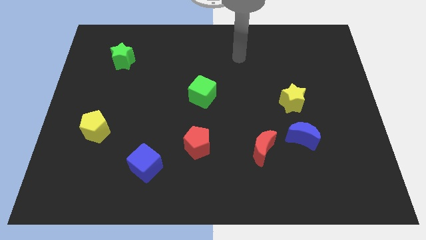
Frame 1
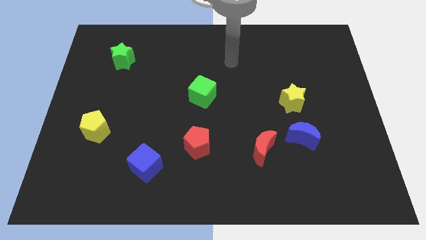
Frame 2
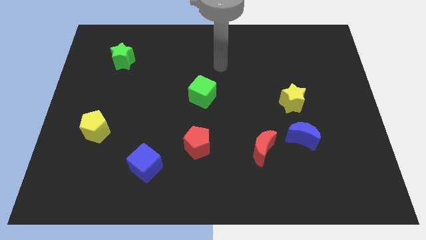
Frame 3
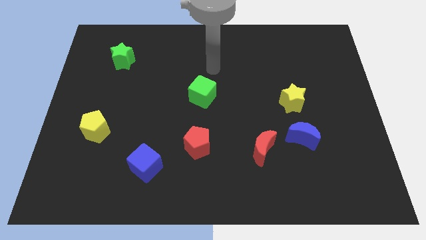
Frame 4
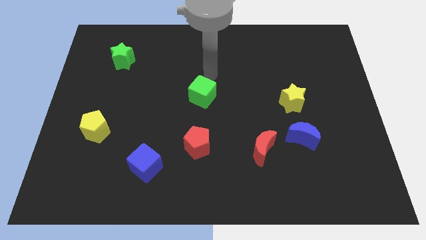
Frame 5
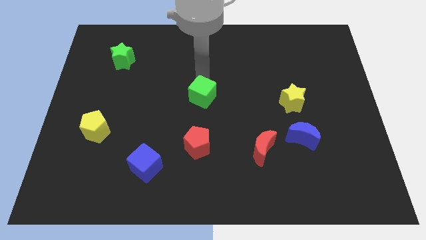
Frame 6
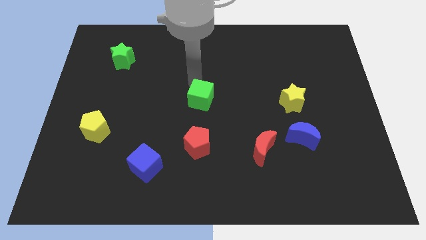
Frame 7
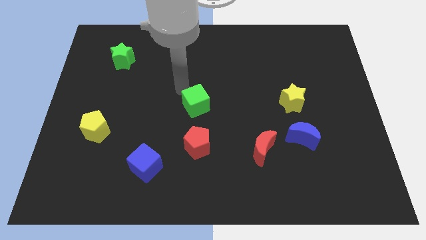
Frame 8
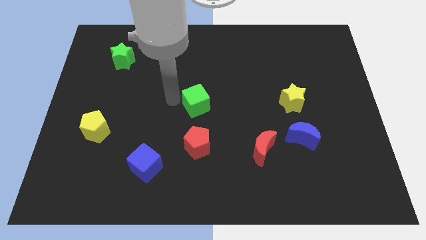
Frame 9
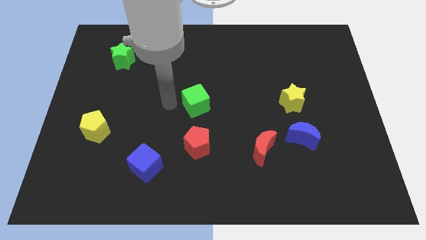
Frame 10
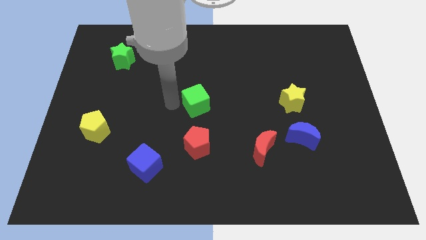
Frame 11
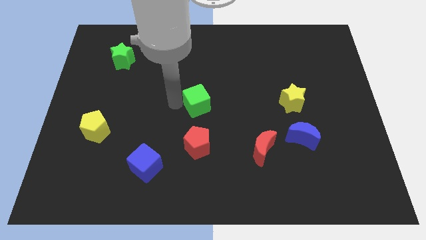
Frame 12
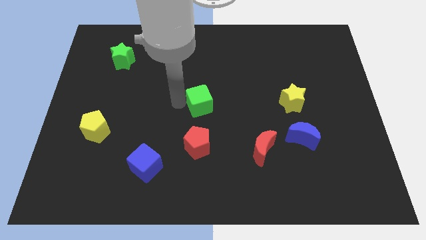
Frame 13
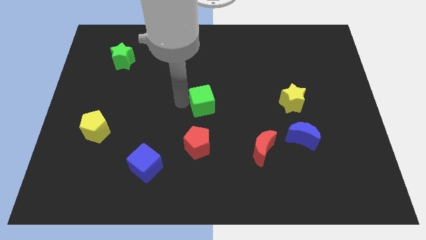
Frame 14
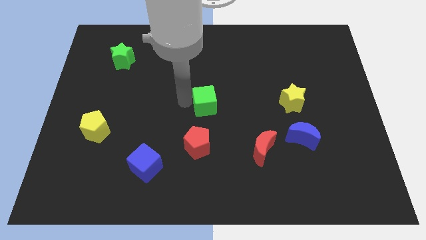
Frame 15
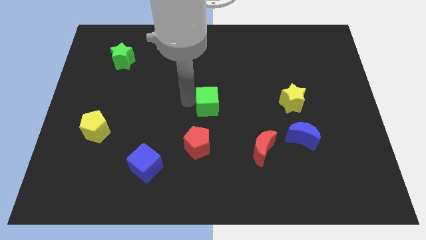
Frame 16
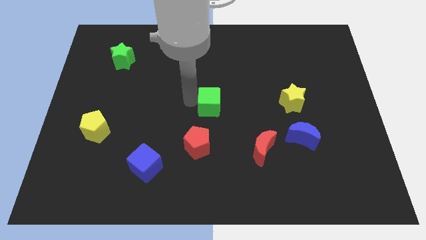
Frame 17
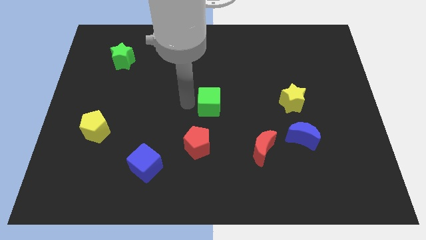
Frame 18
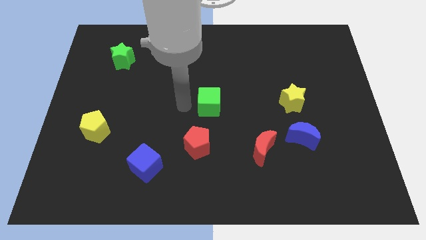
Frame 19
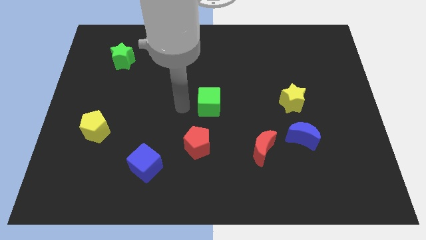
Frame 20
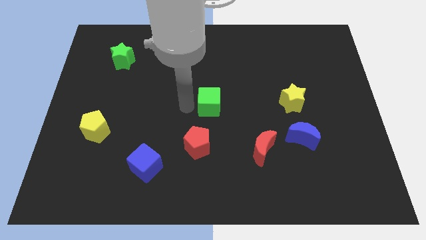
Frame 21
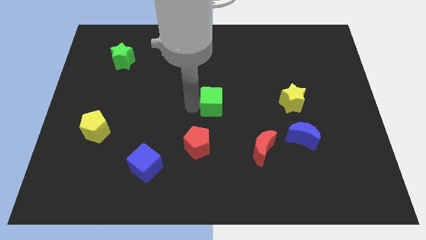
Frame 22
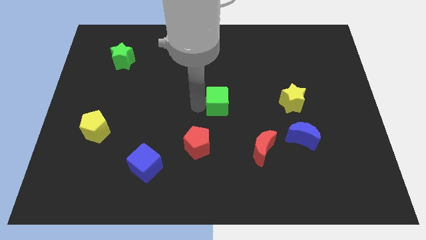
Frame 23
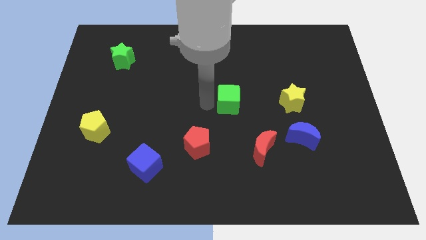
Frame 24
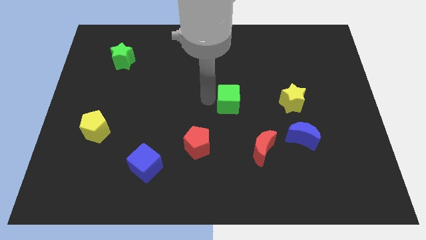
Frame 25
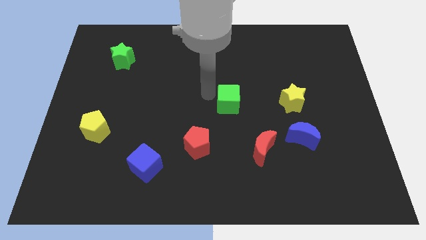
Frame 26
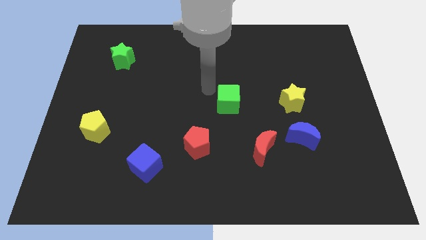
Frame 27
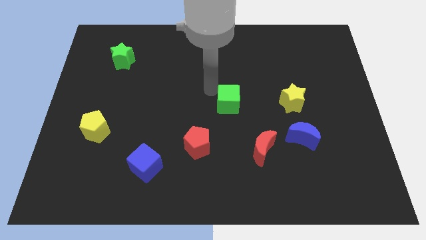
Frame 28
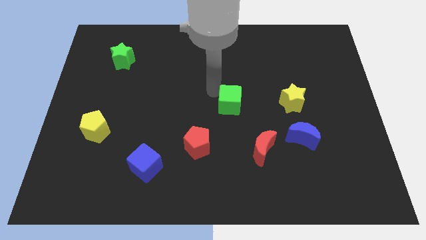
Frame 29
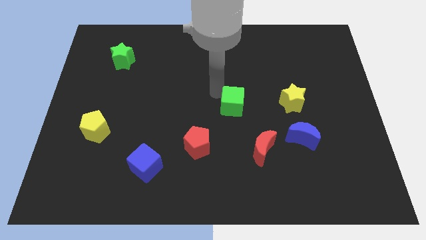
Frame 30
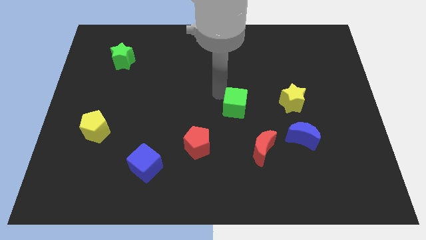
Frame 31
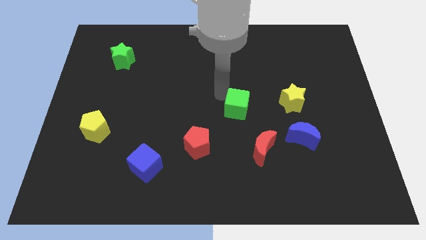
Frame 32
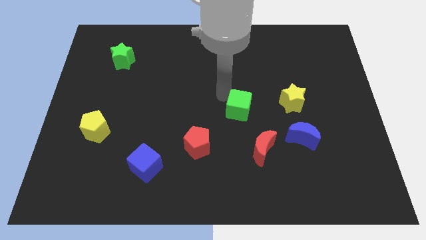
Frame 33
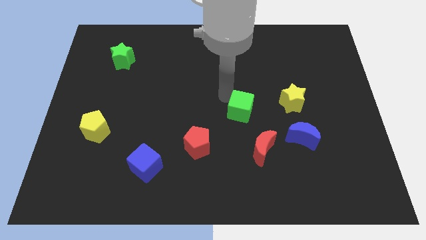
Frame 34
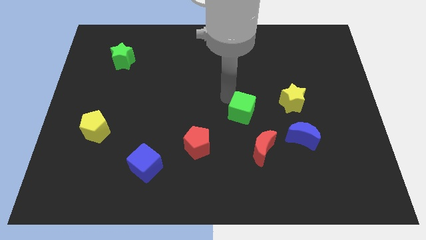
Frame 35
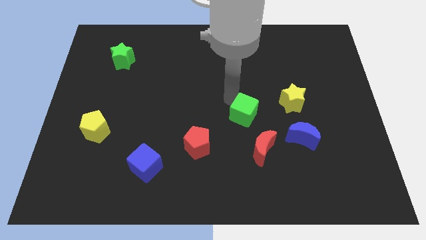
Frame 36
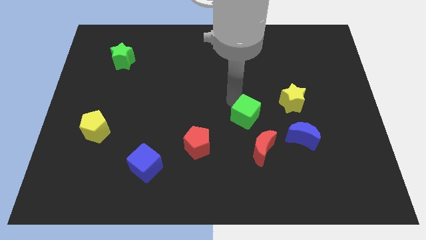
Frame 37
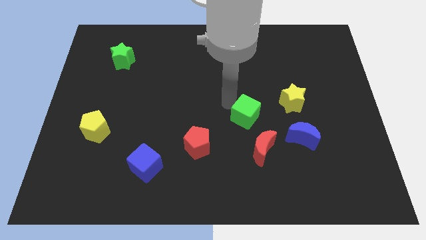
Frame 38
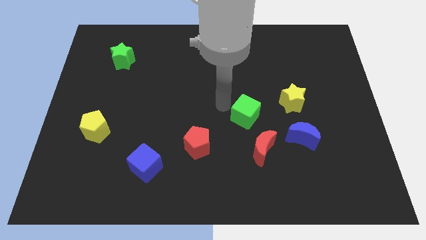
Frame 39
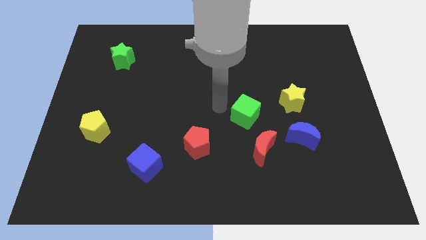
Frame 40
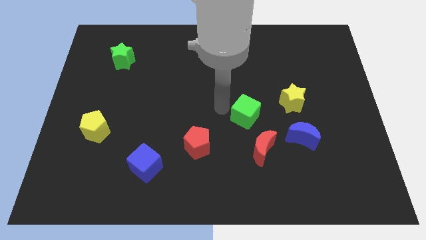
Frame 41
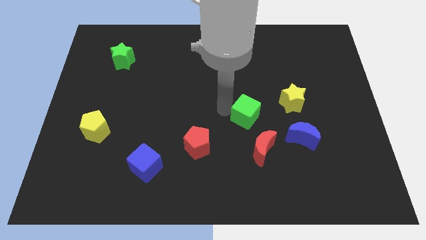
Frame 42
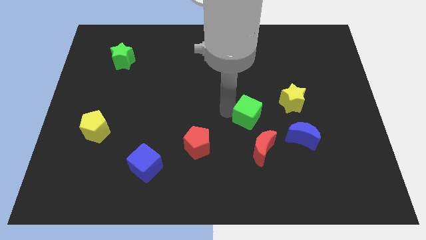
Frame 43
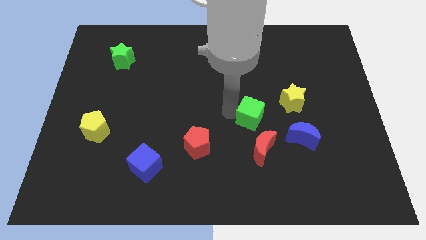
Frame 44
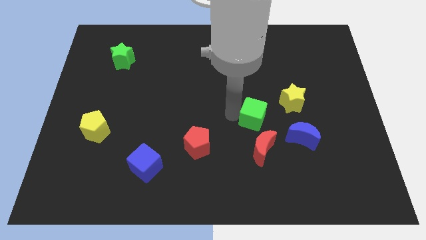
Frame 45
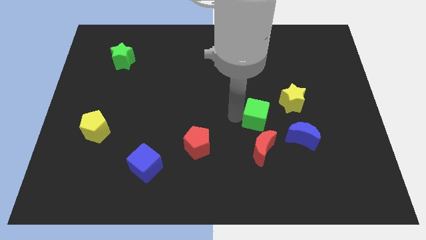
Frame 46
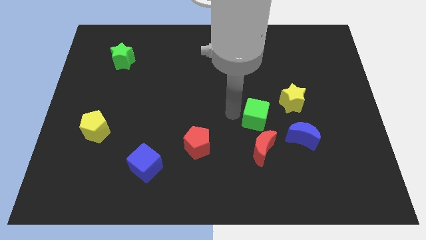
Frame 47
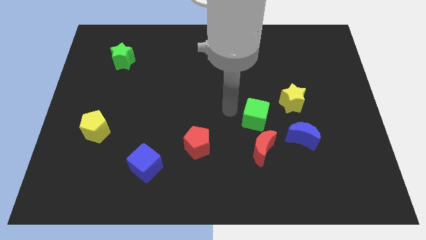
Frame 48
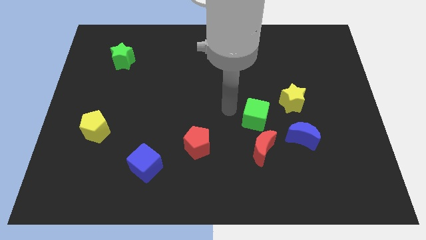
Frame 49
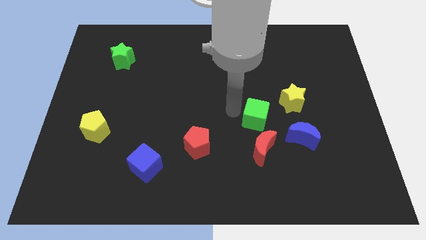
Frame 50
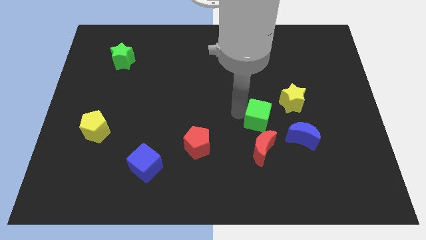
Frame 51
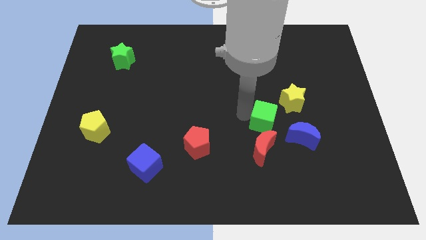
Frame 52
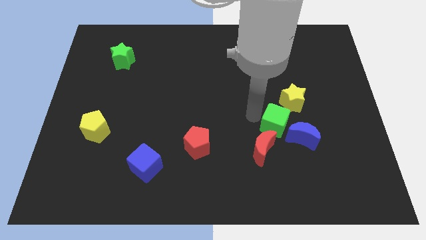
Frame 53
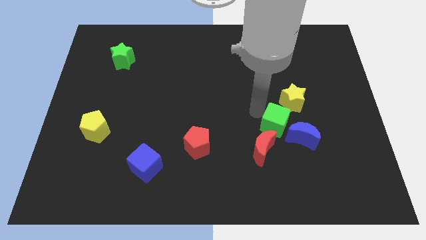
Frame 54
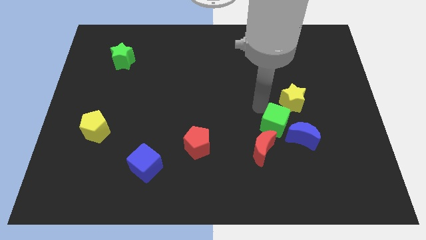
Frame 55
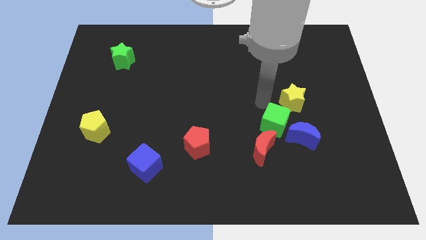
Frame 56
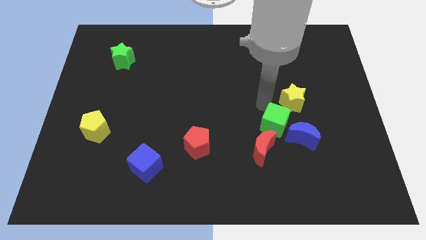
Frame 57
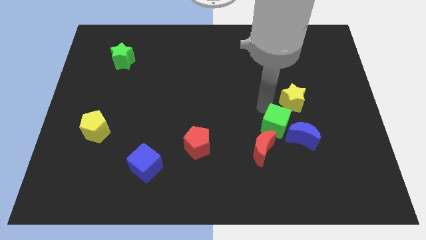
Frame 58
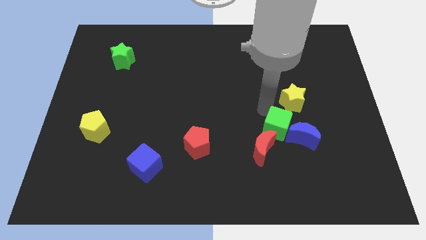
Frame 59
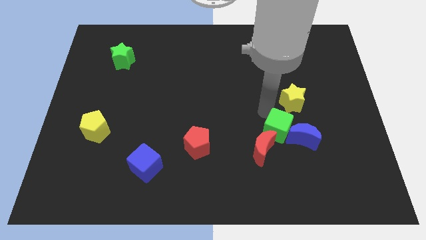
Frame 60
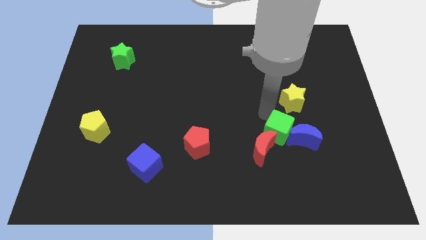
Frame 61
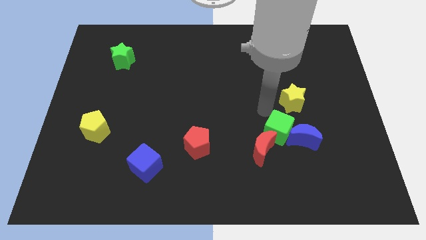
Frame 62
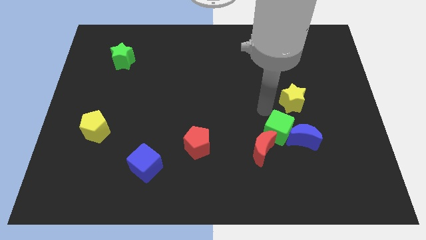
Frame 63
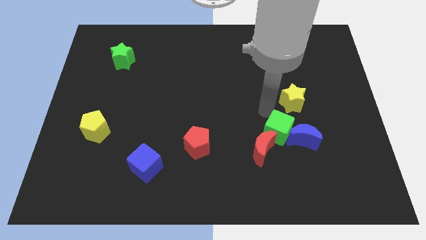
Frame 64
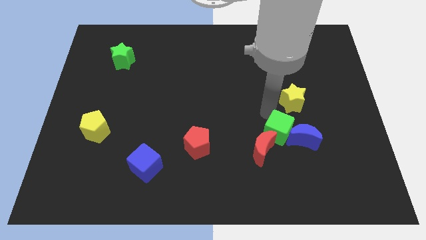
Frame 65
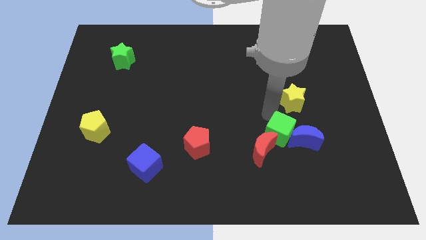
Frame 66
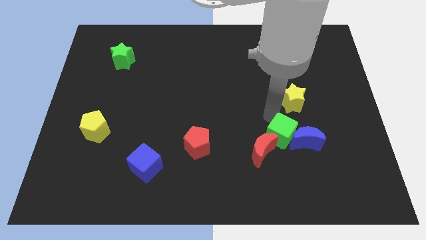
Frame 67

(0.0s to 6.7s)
push the green cube down and then to the right

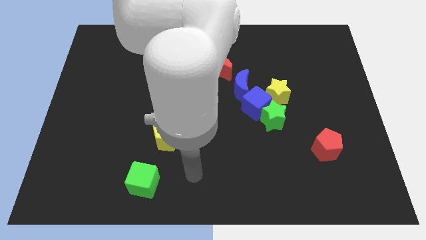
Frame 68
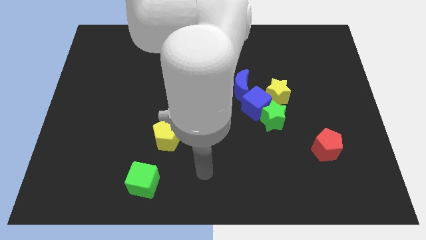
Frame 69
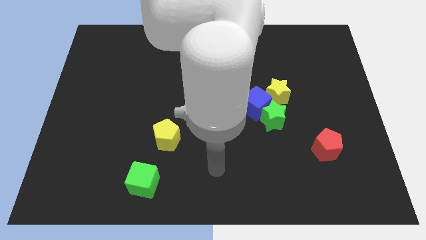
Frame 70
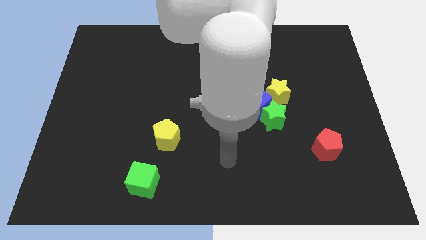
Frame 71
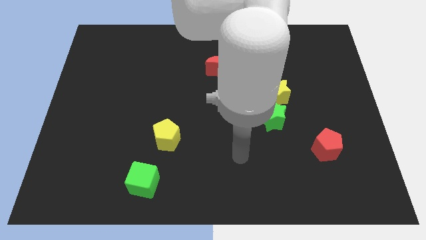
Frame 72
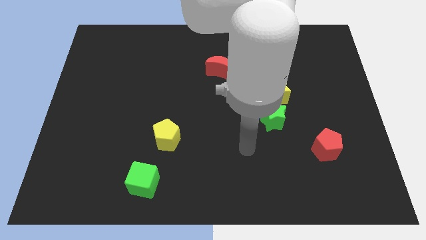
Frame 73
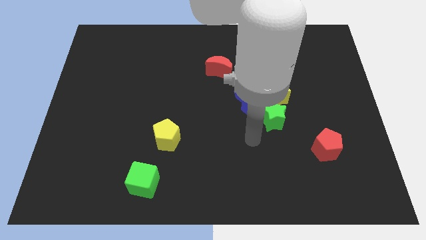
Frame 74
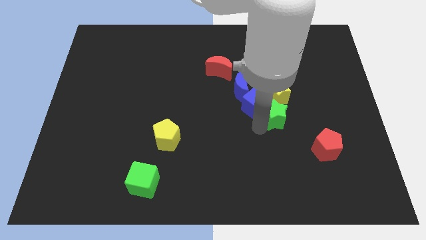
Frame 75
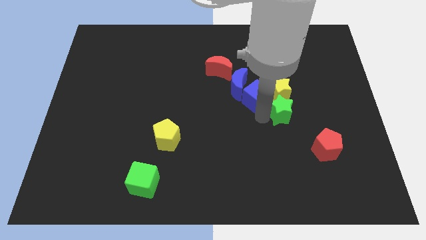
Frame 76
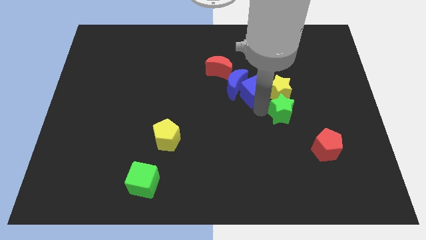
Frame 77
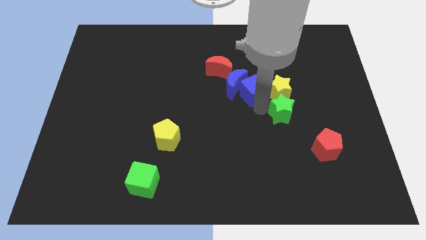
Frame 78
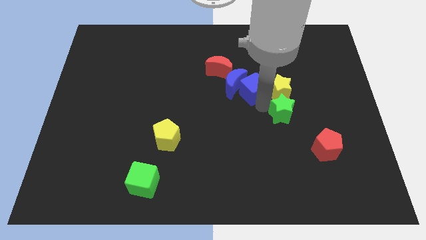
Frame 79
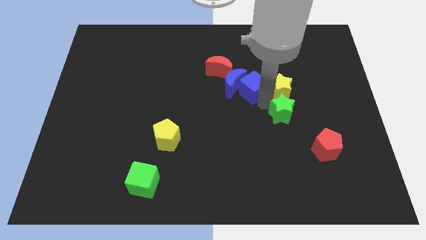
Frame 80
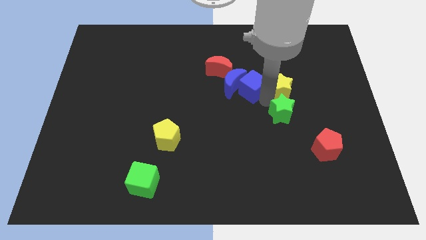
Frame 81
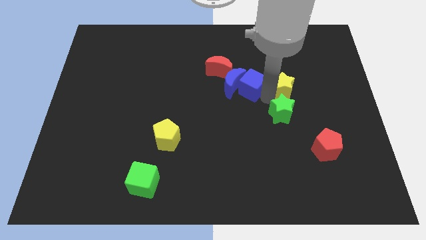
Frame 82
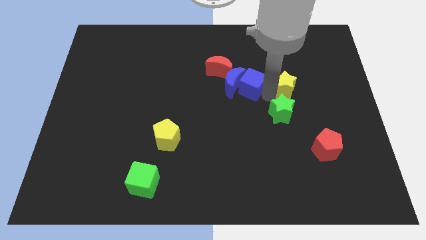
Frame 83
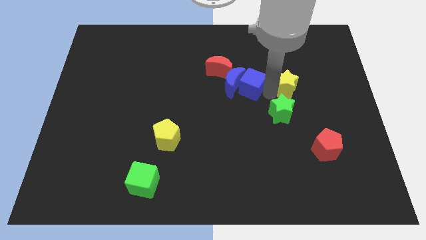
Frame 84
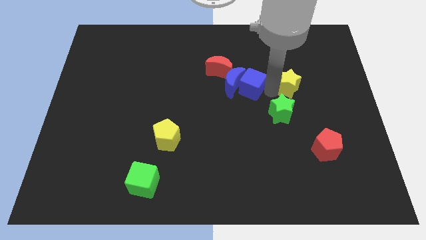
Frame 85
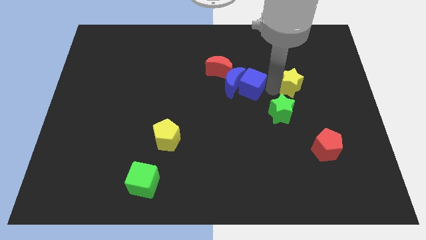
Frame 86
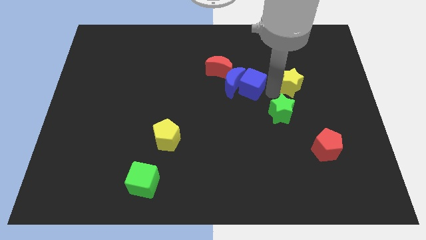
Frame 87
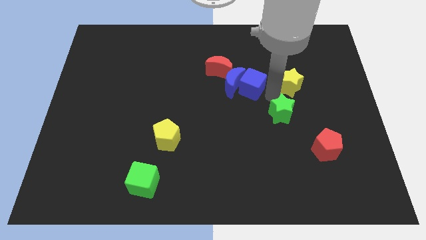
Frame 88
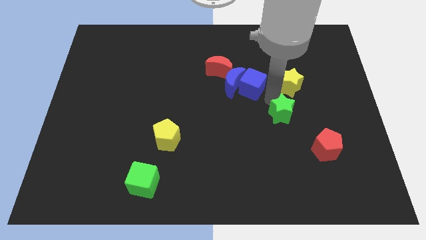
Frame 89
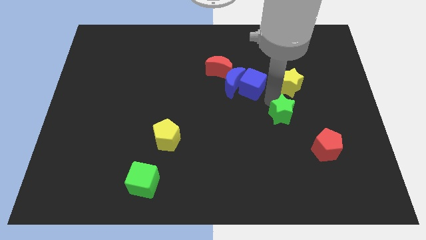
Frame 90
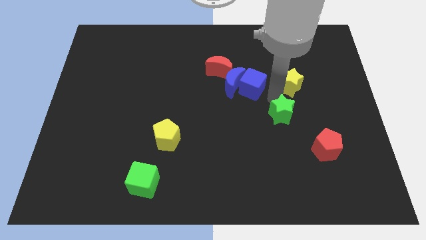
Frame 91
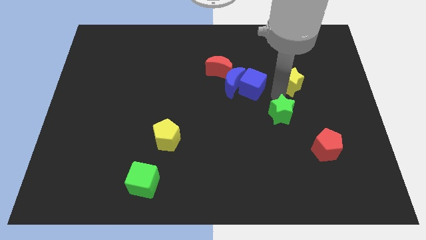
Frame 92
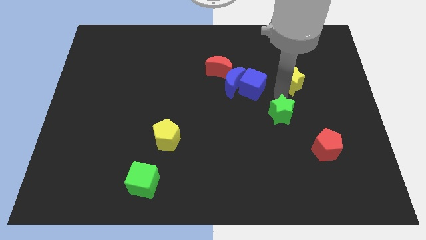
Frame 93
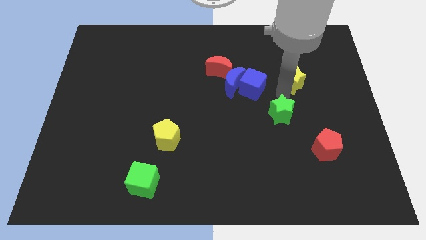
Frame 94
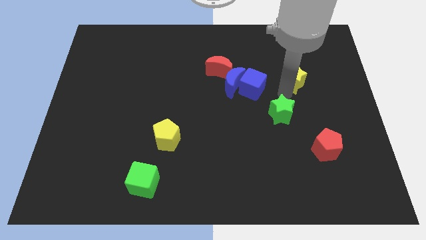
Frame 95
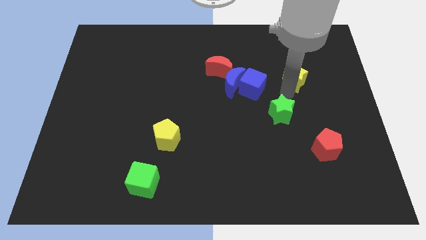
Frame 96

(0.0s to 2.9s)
push the yellow star a little bit up and to the right
